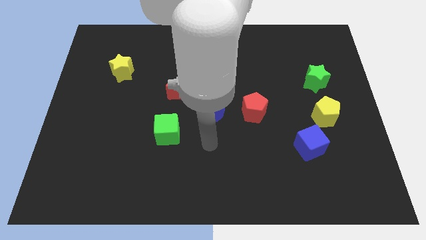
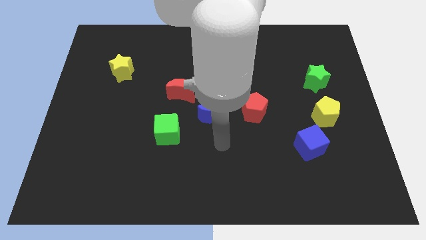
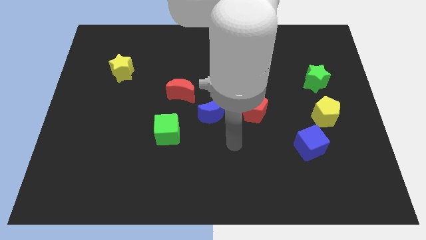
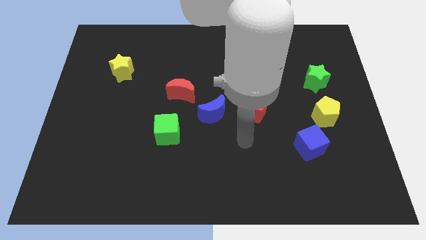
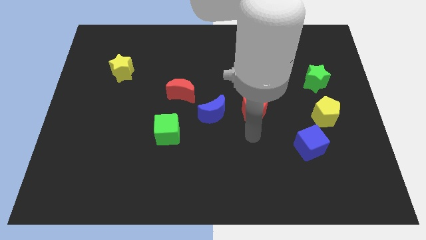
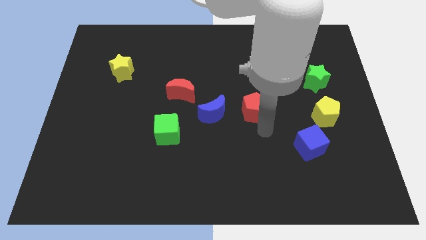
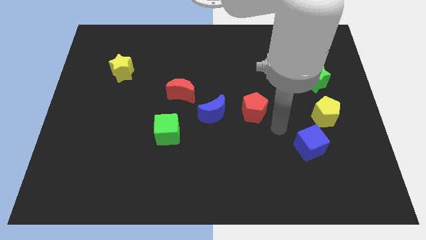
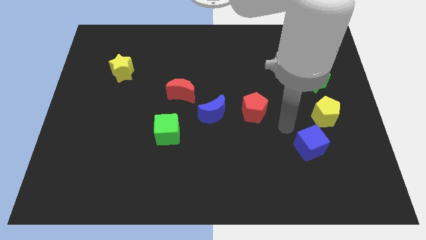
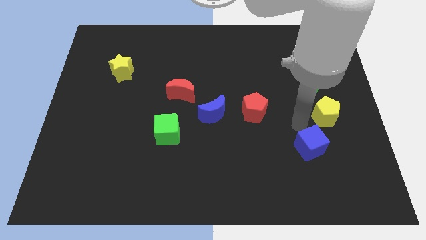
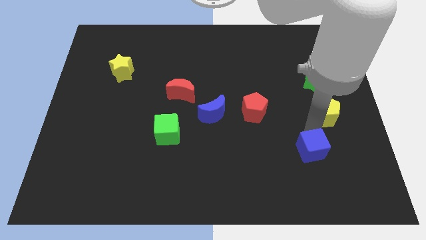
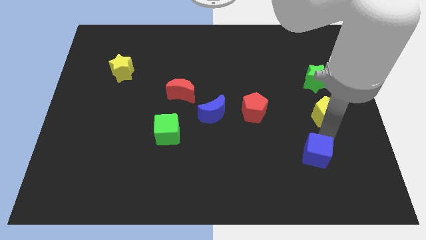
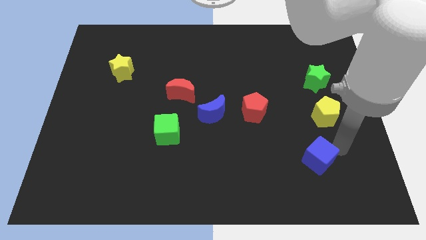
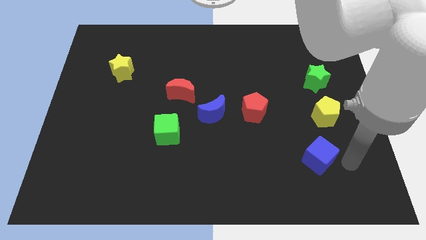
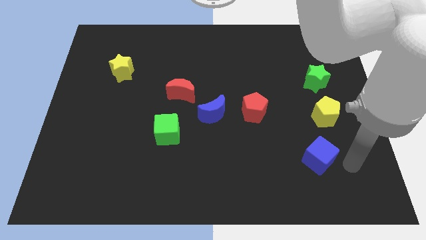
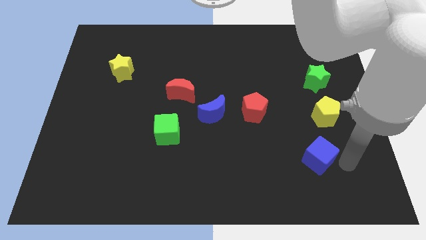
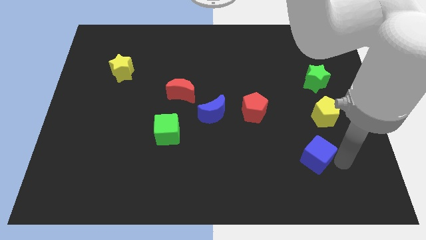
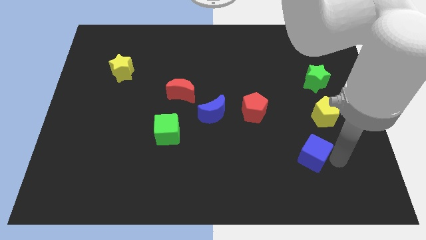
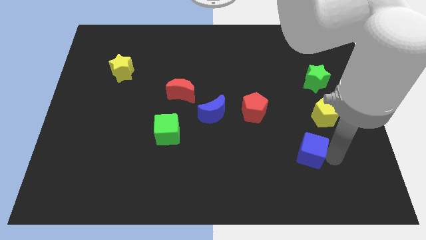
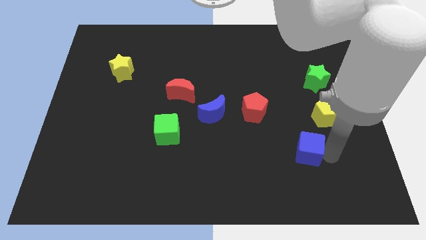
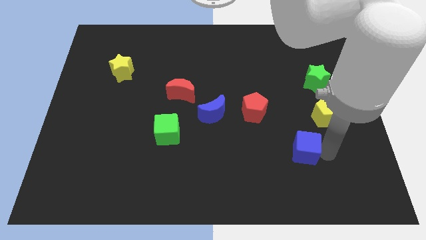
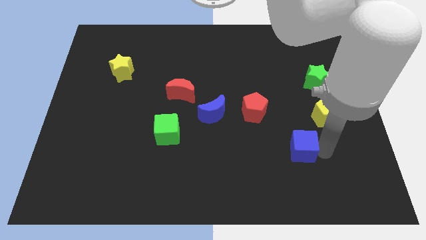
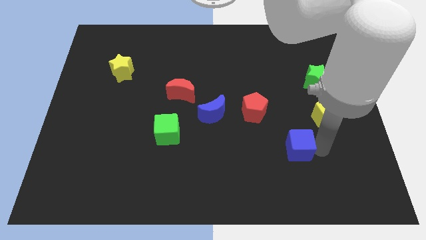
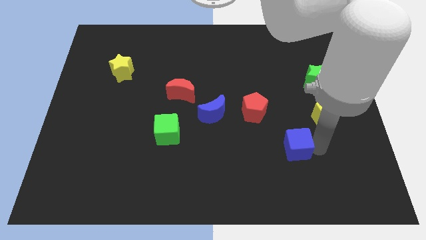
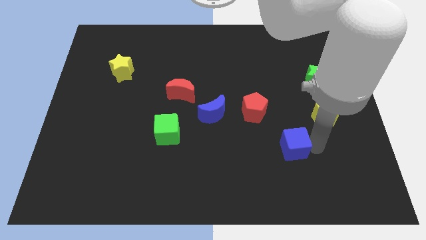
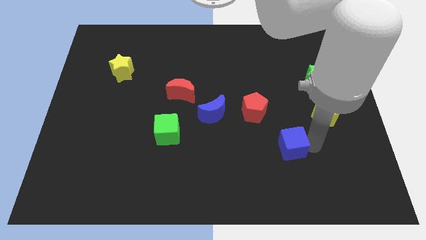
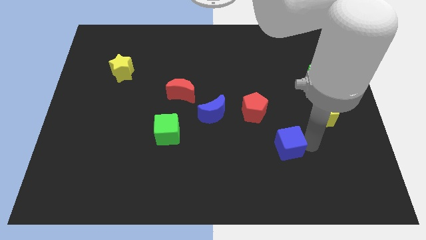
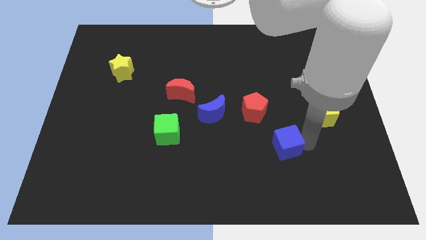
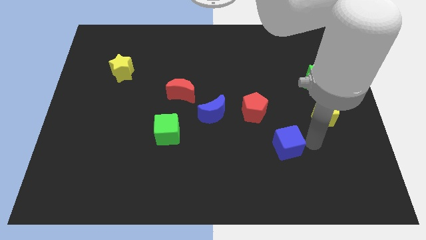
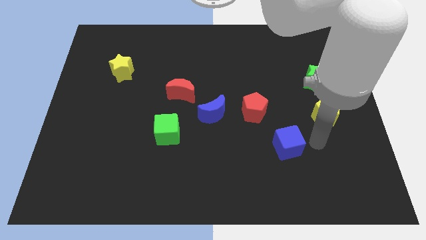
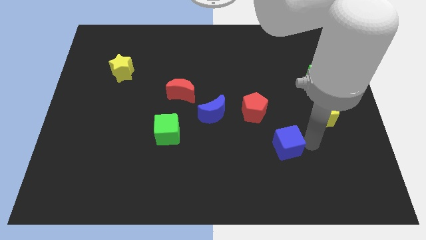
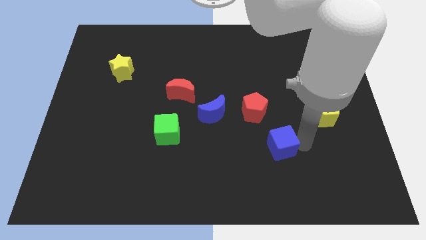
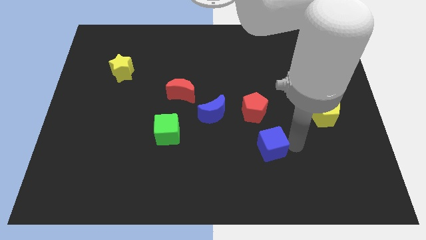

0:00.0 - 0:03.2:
slightly move the blue cube left

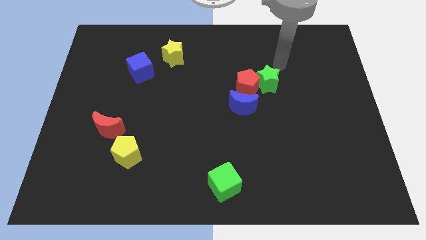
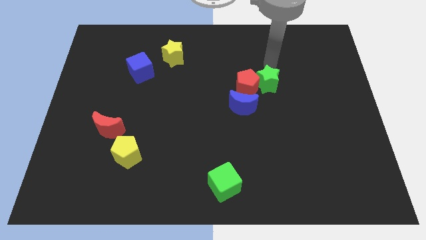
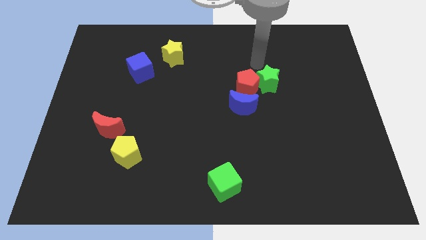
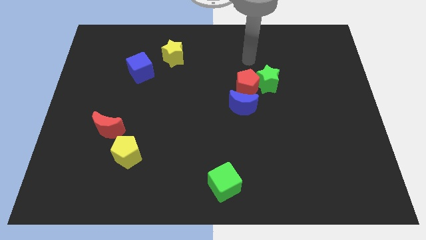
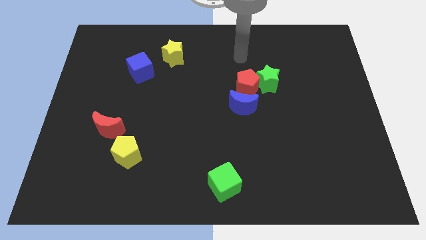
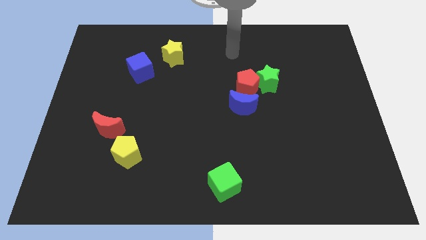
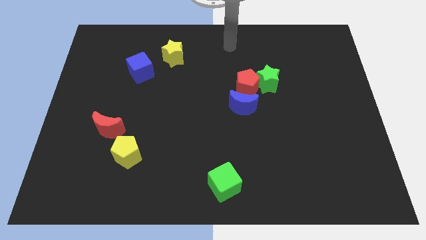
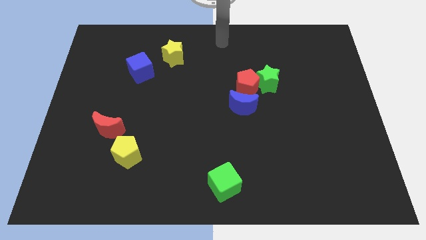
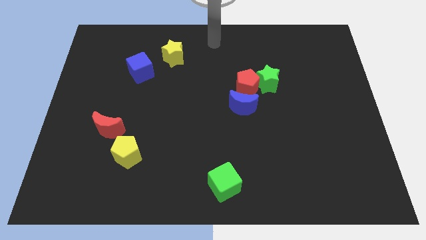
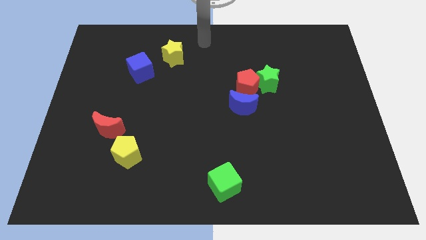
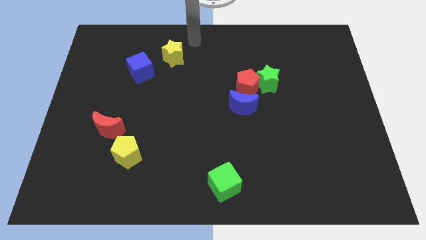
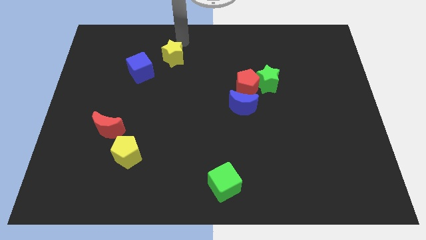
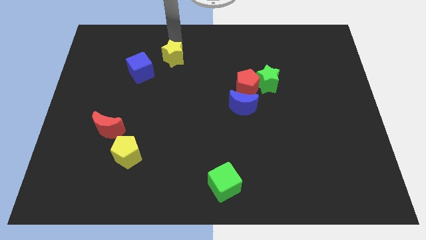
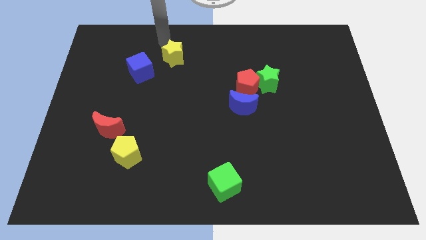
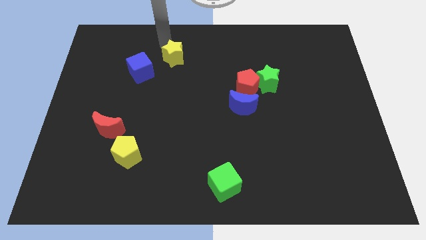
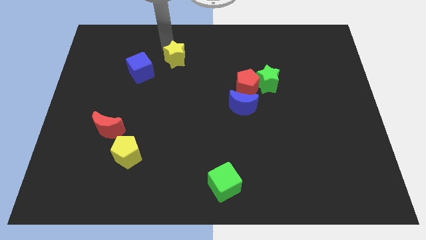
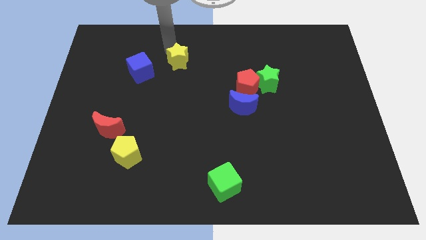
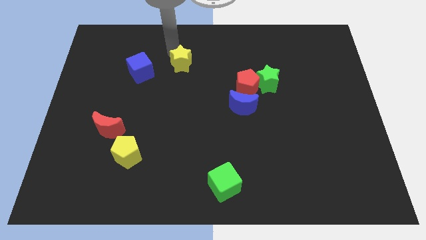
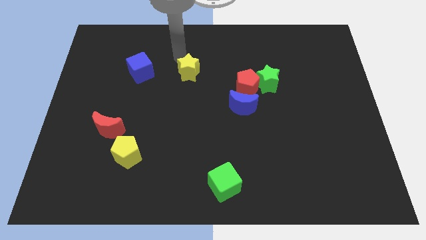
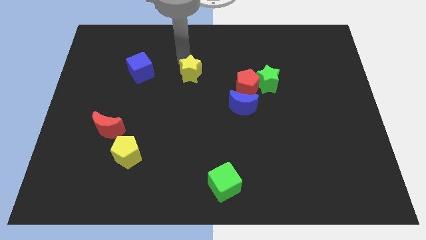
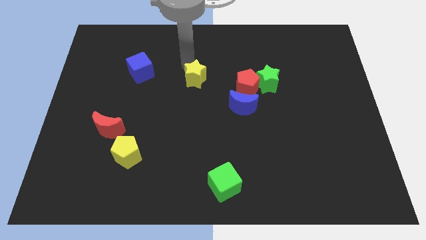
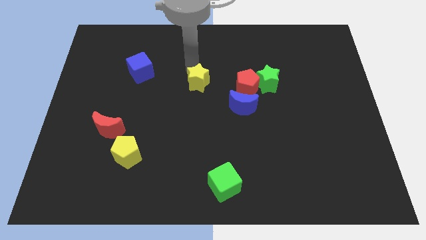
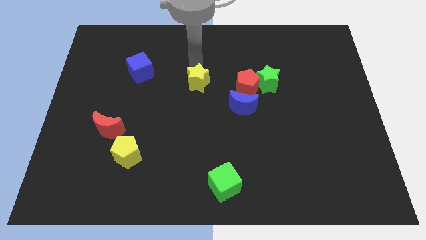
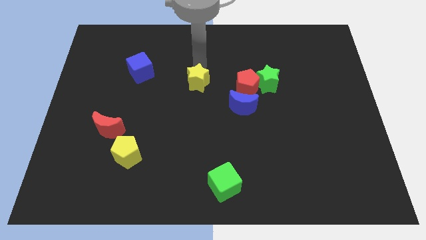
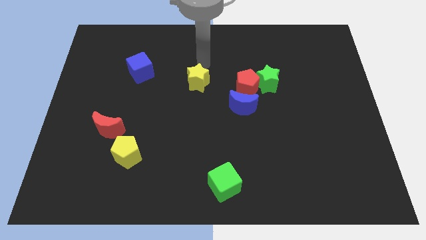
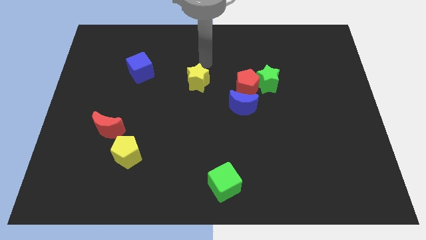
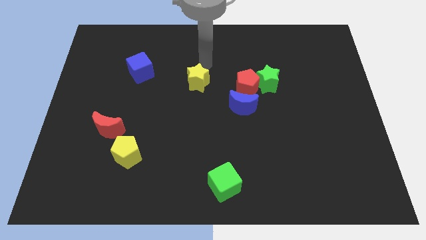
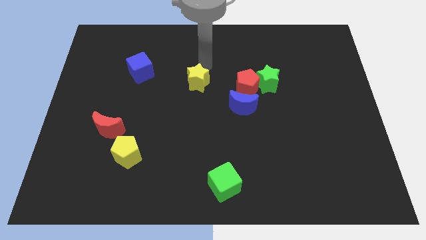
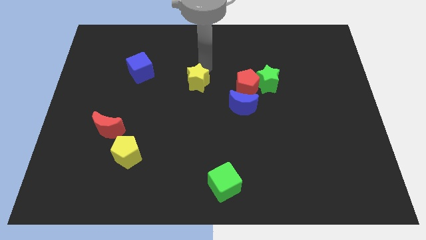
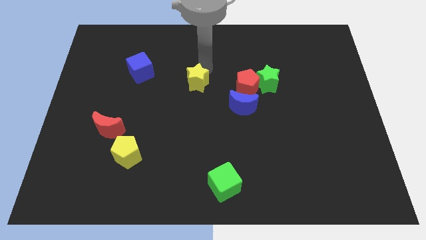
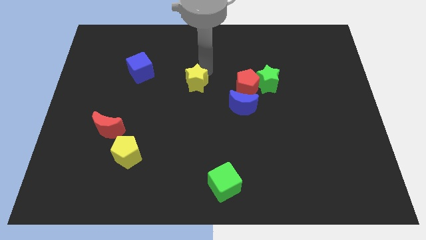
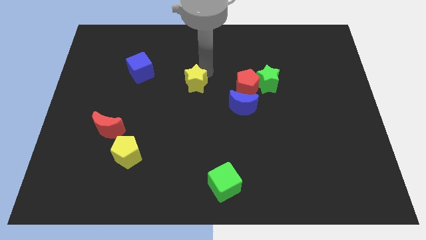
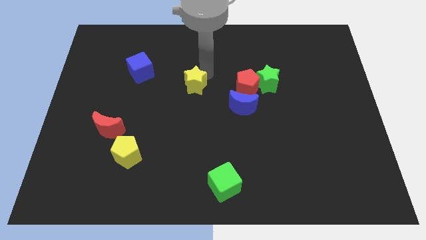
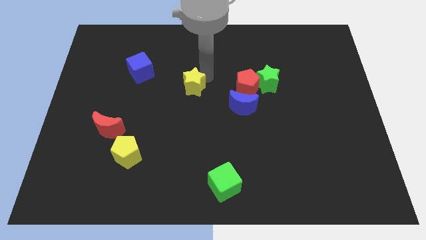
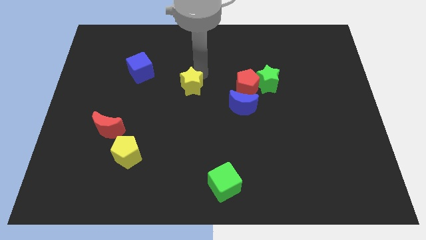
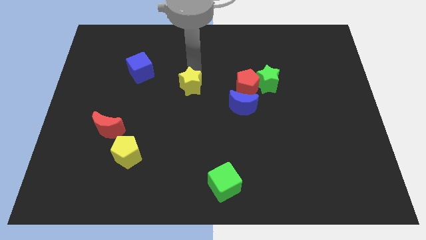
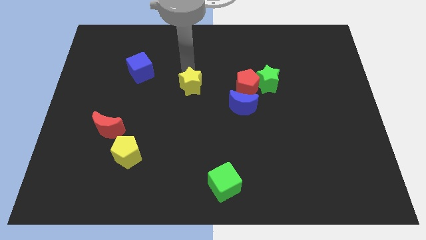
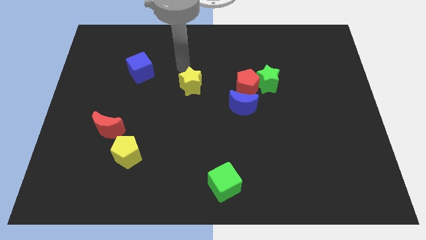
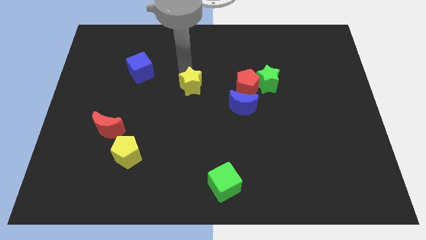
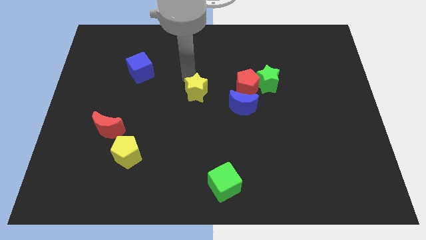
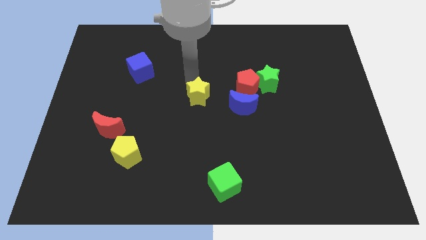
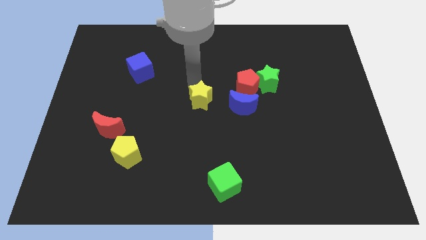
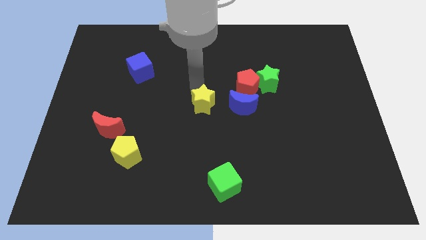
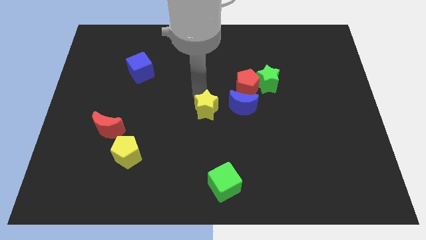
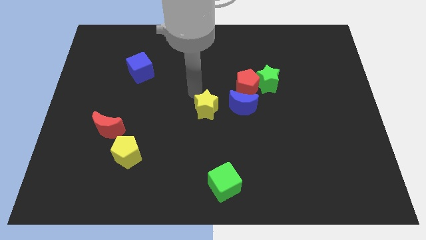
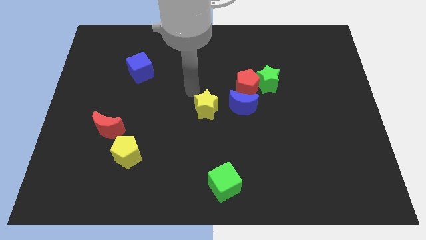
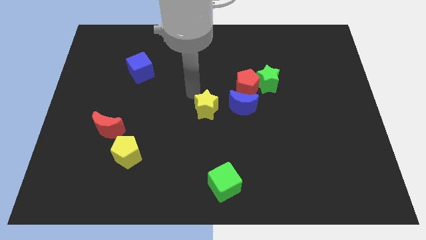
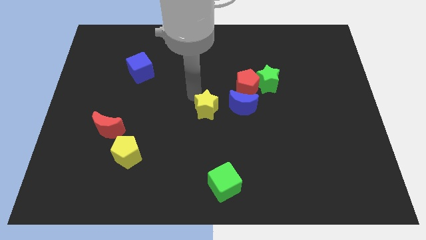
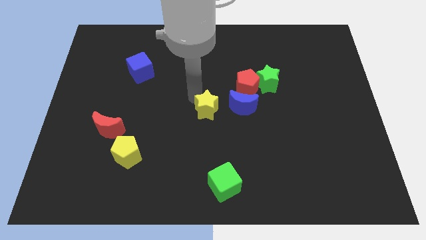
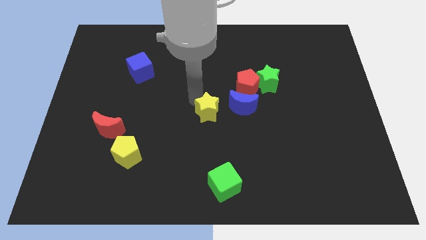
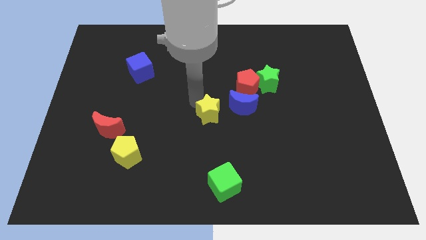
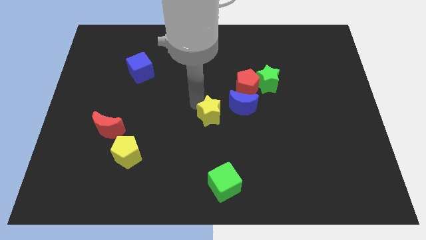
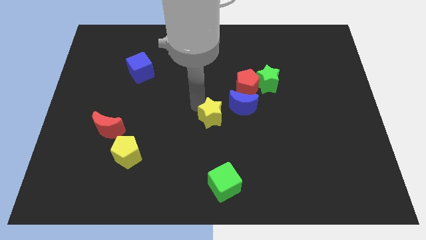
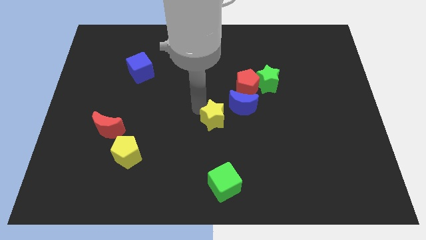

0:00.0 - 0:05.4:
slide the yellow star down and to the right
